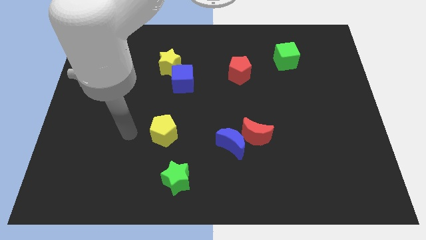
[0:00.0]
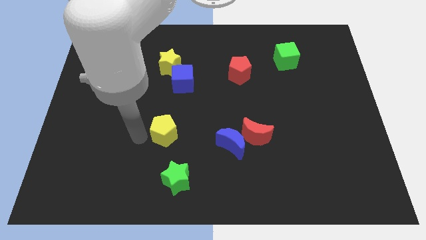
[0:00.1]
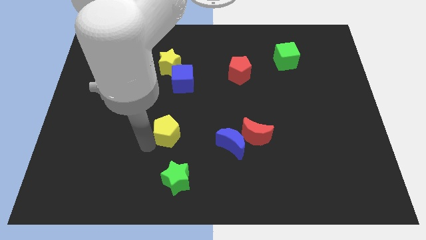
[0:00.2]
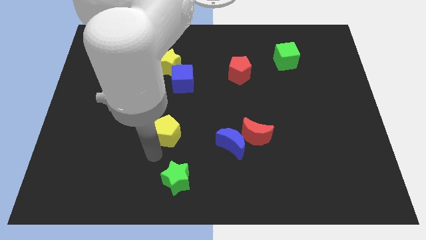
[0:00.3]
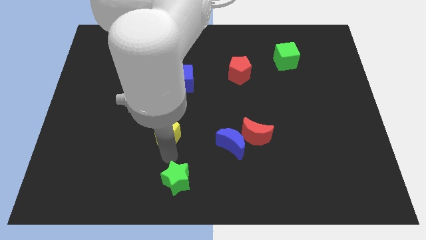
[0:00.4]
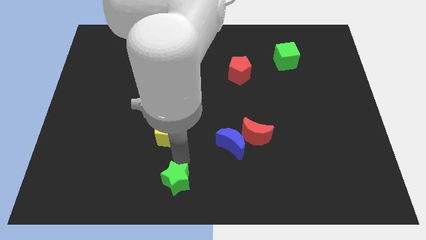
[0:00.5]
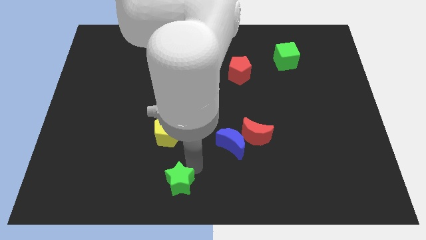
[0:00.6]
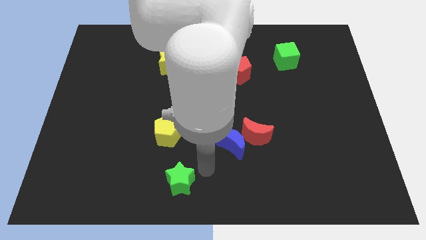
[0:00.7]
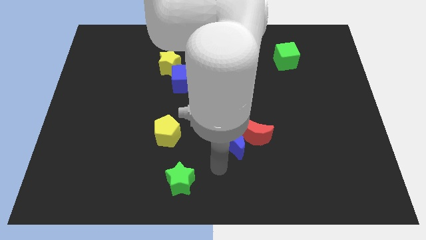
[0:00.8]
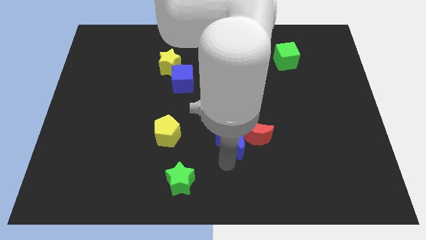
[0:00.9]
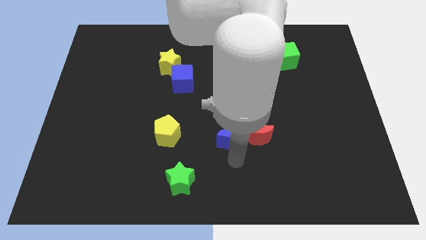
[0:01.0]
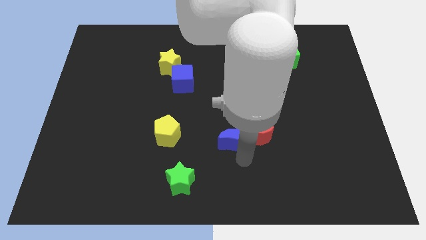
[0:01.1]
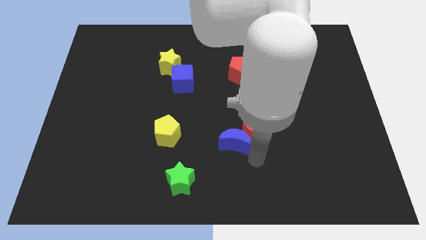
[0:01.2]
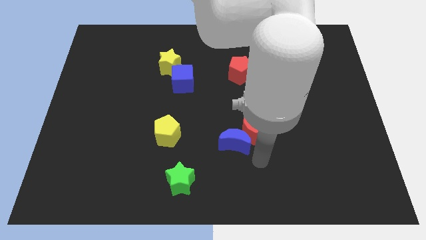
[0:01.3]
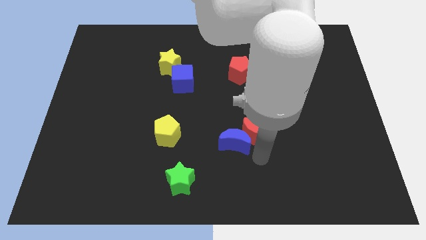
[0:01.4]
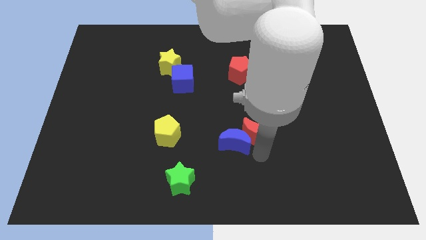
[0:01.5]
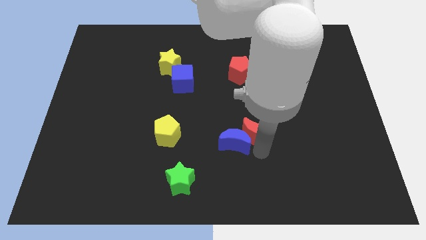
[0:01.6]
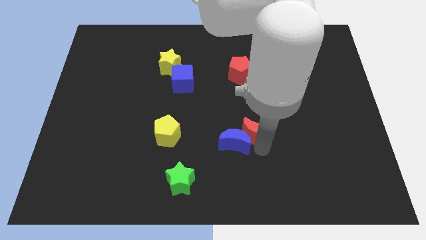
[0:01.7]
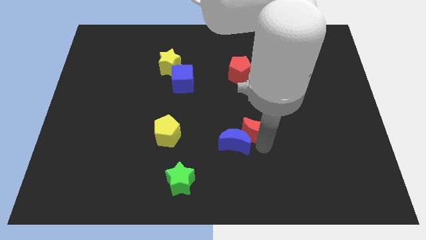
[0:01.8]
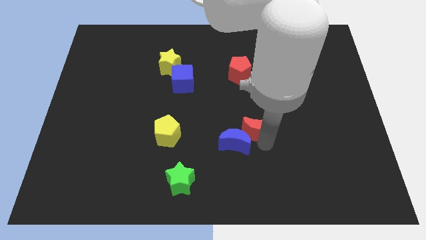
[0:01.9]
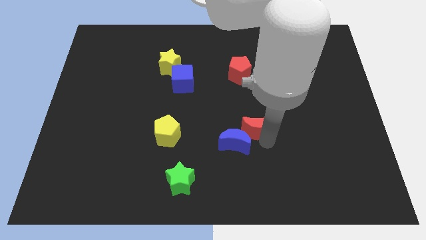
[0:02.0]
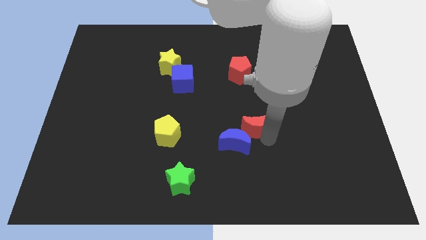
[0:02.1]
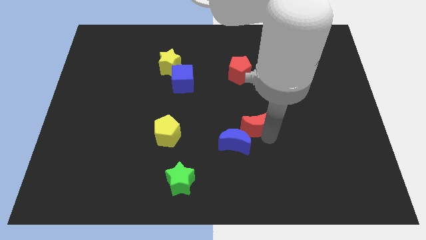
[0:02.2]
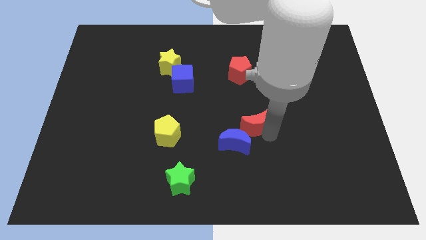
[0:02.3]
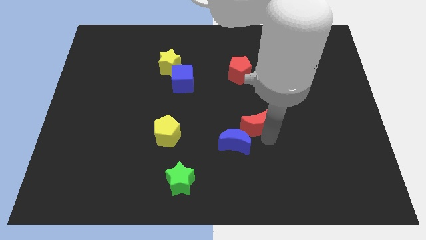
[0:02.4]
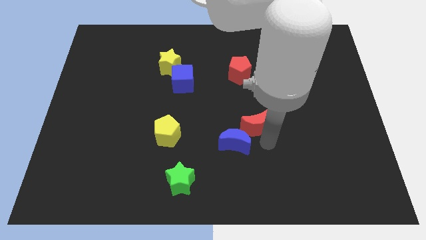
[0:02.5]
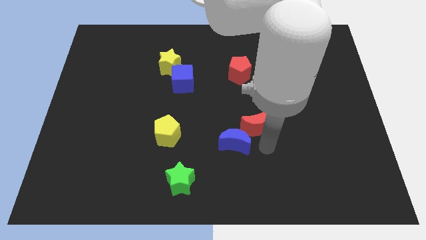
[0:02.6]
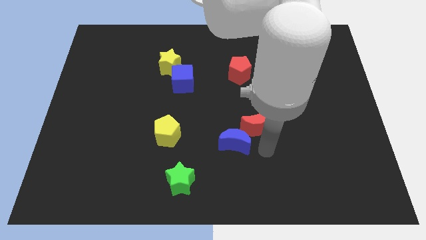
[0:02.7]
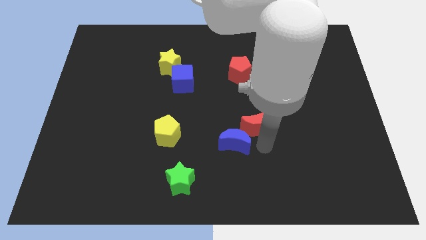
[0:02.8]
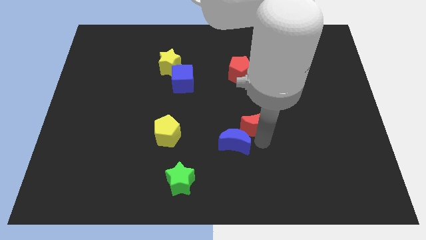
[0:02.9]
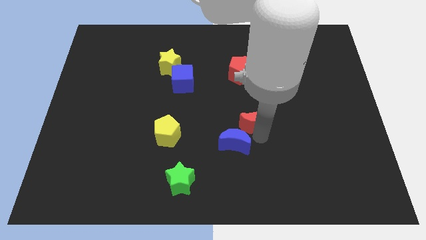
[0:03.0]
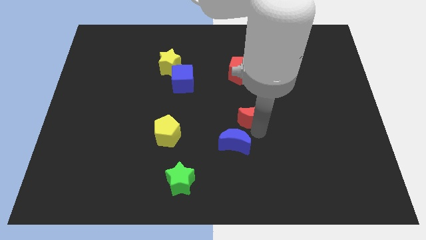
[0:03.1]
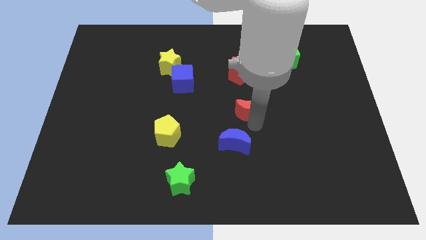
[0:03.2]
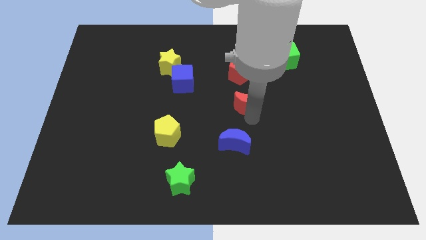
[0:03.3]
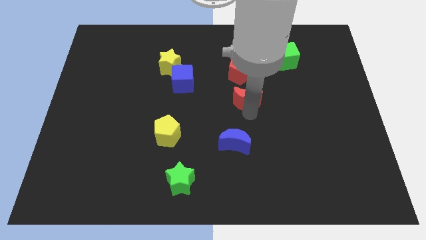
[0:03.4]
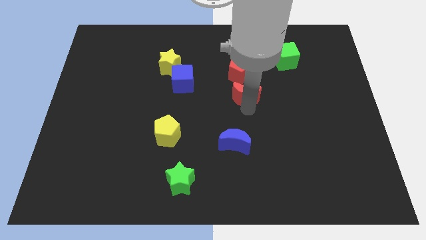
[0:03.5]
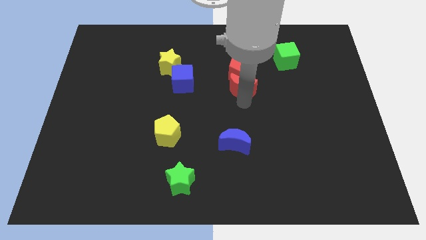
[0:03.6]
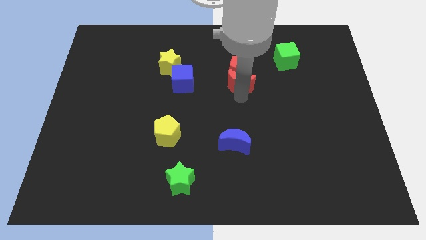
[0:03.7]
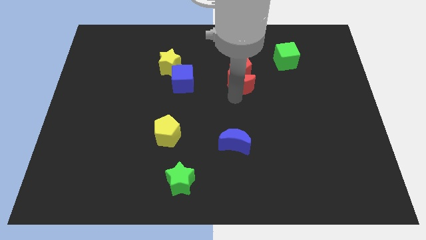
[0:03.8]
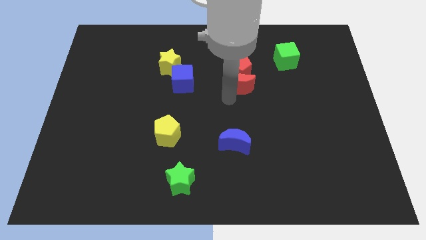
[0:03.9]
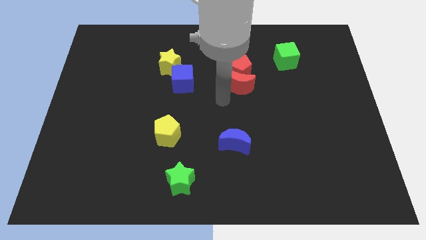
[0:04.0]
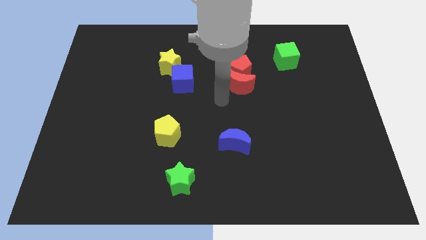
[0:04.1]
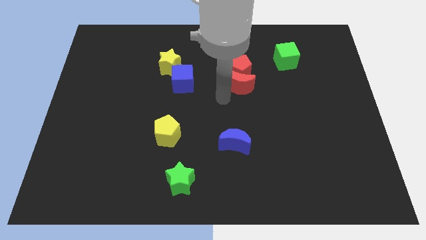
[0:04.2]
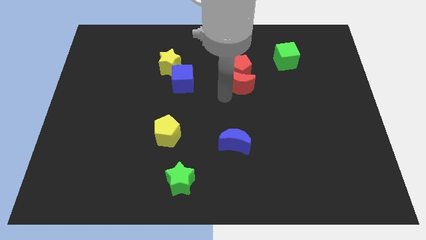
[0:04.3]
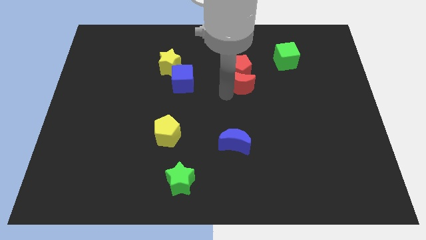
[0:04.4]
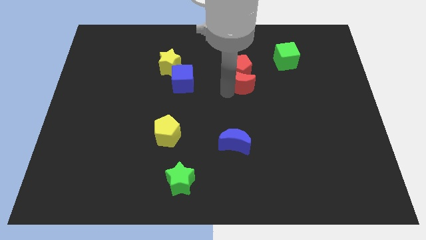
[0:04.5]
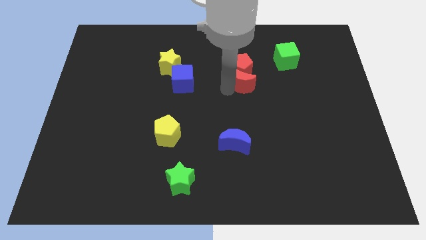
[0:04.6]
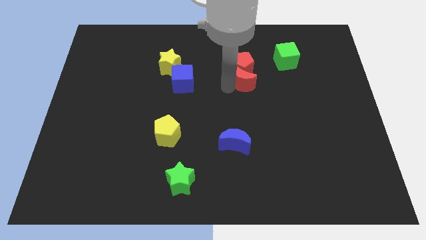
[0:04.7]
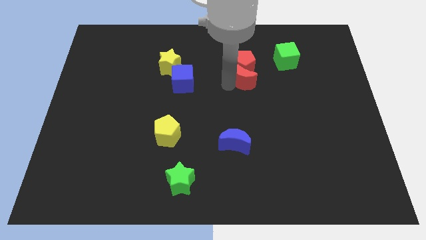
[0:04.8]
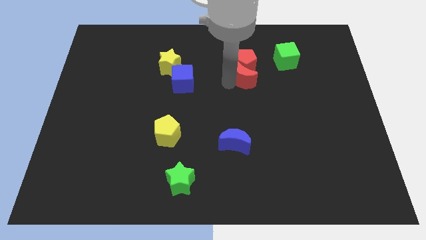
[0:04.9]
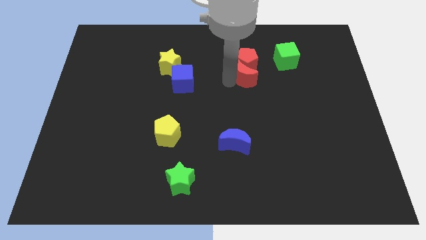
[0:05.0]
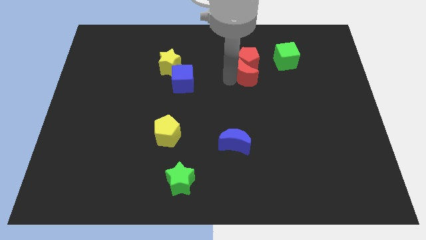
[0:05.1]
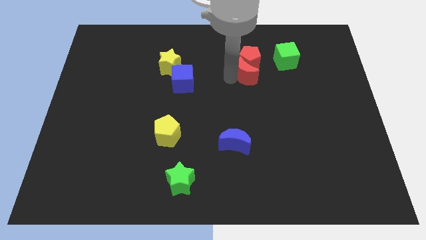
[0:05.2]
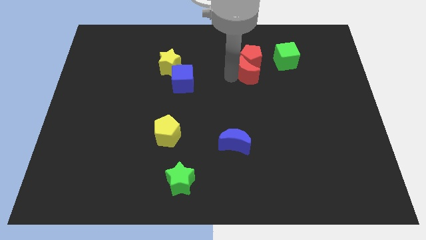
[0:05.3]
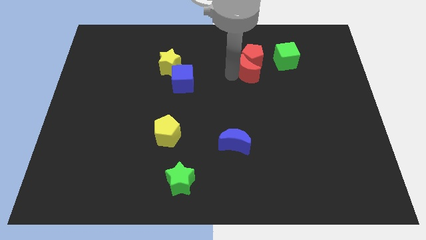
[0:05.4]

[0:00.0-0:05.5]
move the red moon left of the green cube

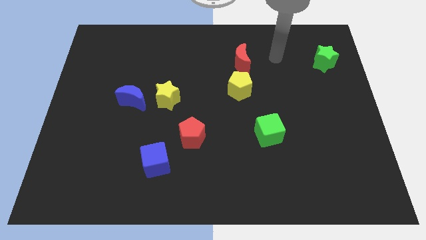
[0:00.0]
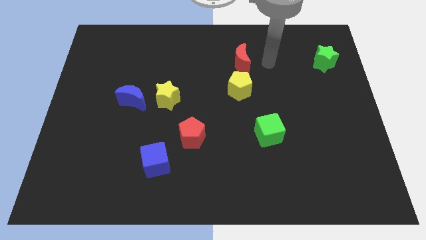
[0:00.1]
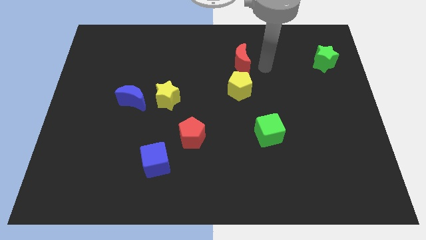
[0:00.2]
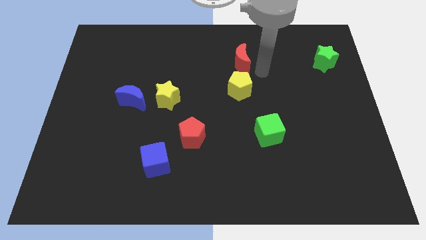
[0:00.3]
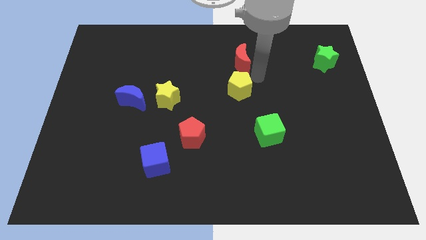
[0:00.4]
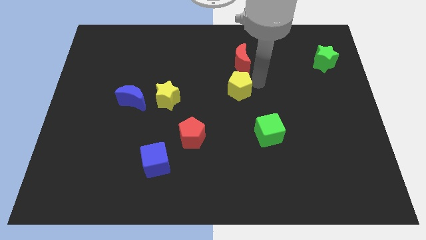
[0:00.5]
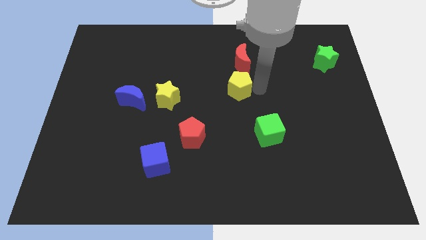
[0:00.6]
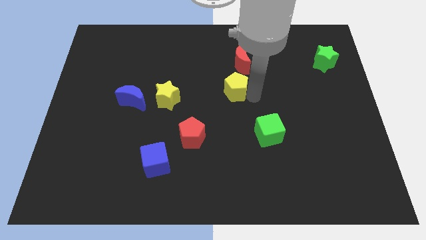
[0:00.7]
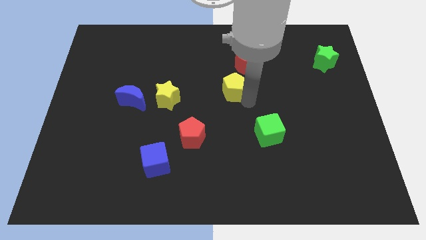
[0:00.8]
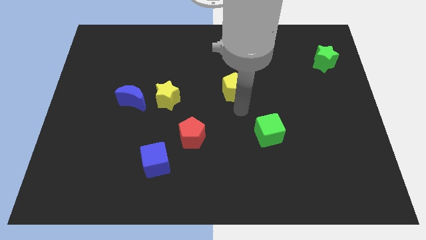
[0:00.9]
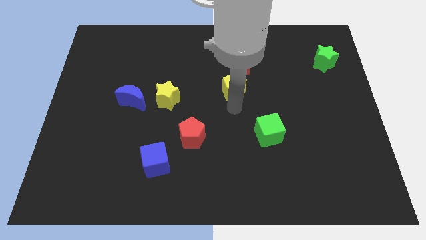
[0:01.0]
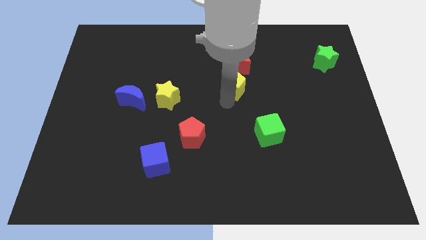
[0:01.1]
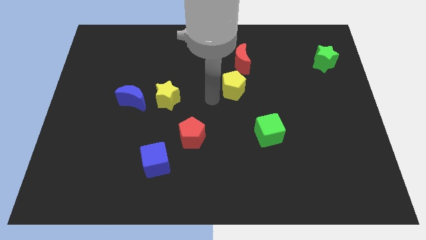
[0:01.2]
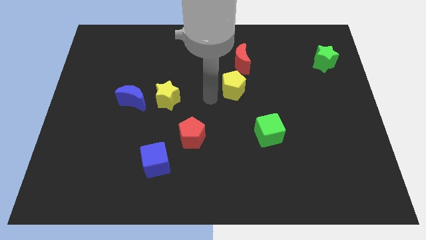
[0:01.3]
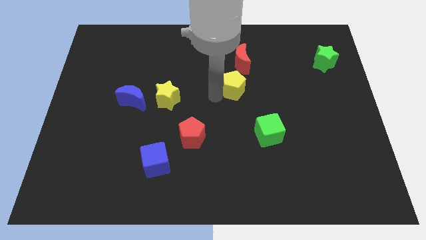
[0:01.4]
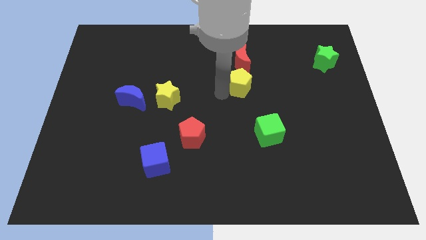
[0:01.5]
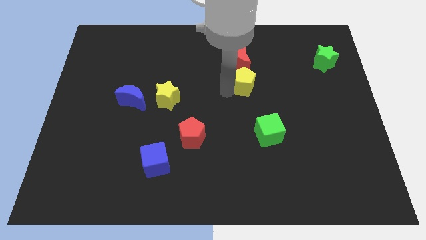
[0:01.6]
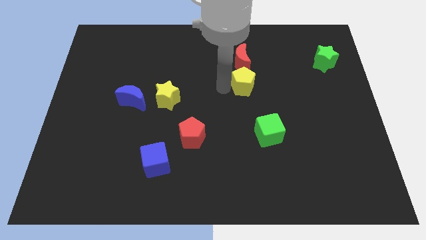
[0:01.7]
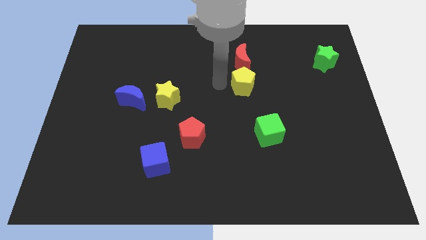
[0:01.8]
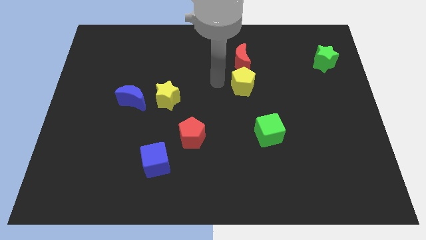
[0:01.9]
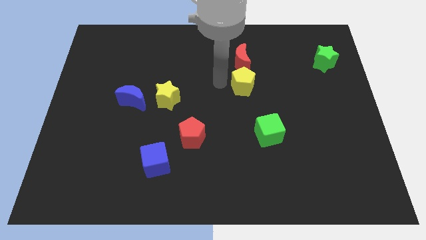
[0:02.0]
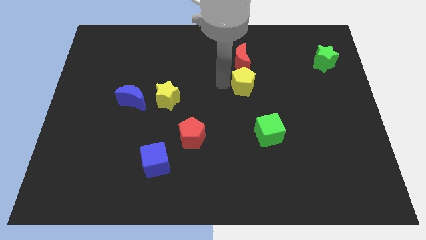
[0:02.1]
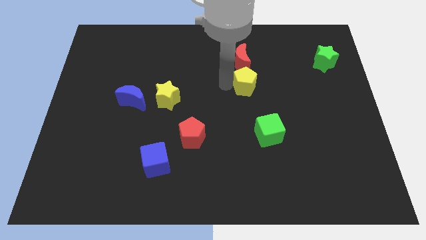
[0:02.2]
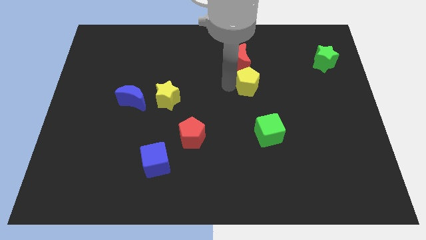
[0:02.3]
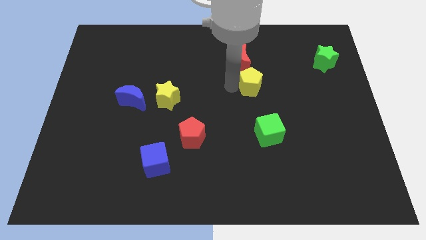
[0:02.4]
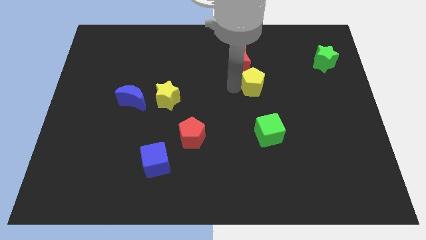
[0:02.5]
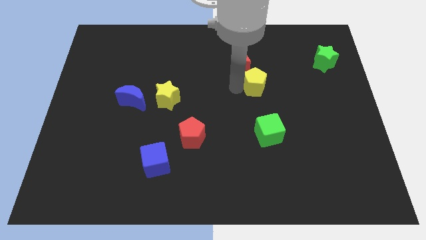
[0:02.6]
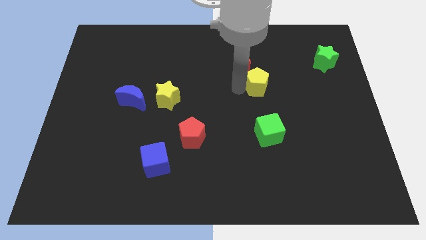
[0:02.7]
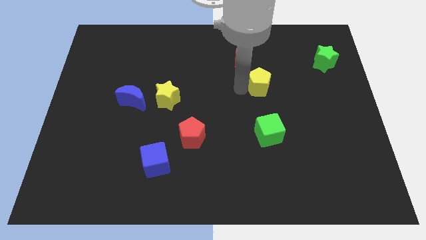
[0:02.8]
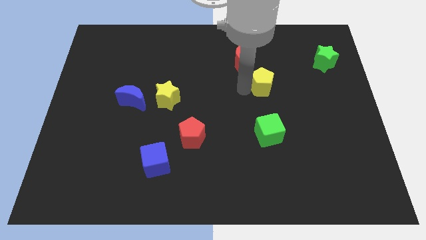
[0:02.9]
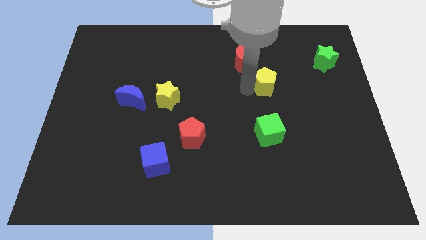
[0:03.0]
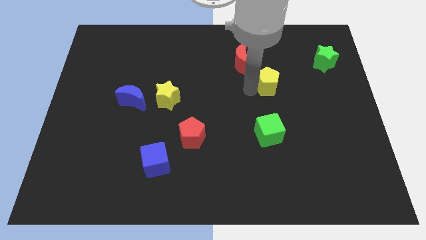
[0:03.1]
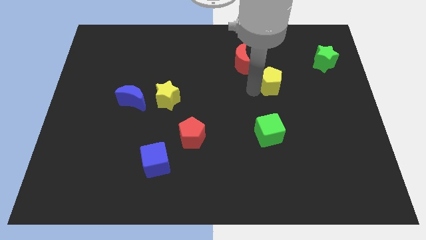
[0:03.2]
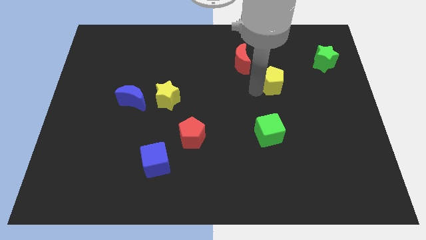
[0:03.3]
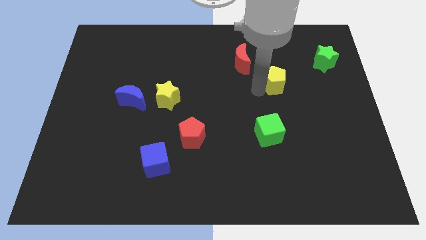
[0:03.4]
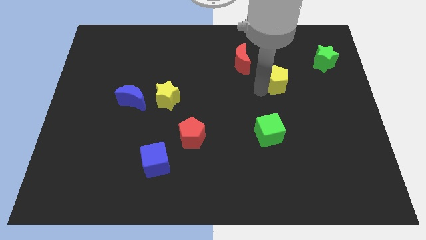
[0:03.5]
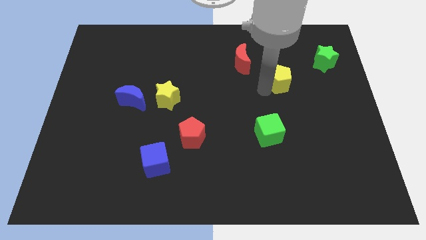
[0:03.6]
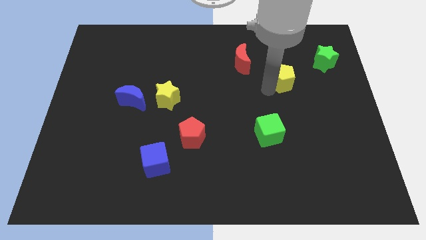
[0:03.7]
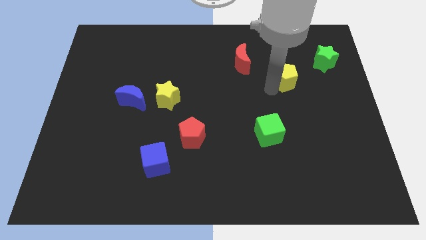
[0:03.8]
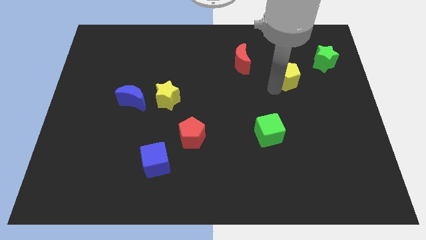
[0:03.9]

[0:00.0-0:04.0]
push the yellow pentagon to the bottom left side of the green star
